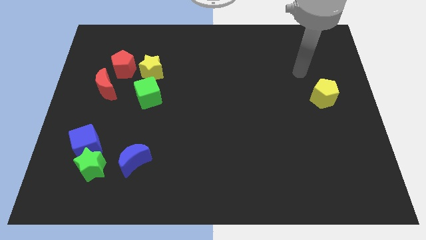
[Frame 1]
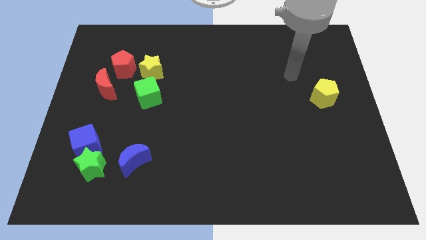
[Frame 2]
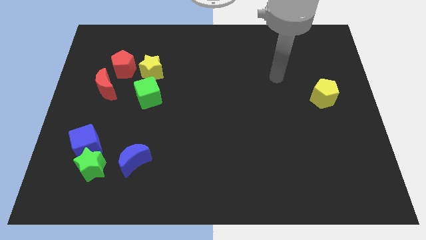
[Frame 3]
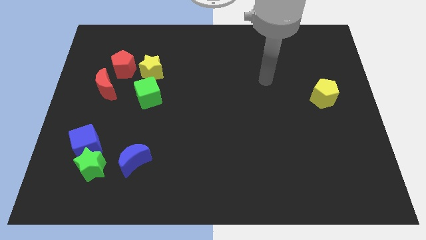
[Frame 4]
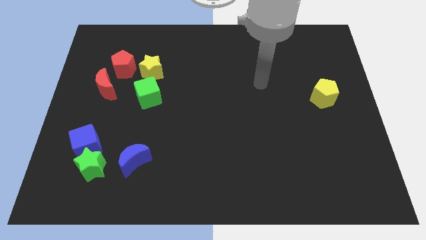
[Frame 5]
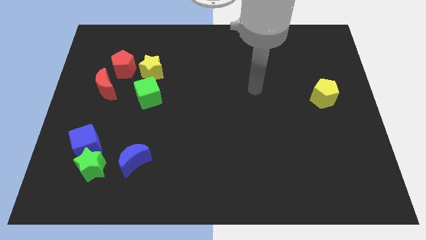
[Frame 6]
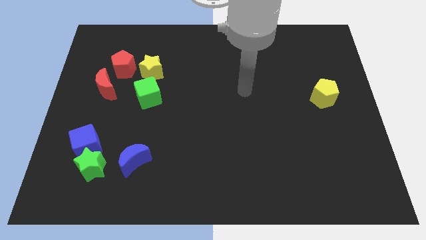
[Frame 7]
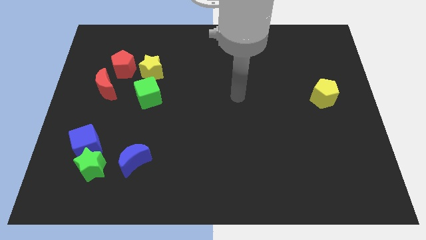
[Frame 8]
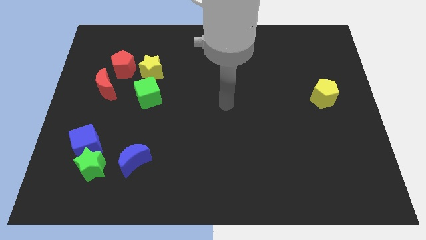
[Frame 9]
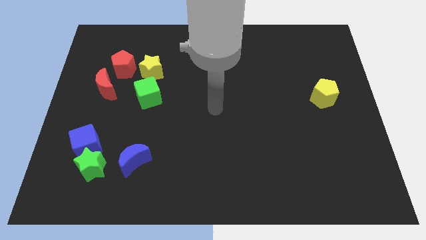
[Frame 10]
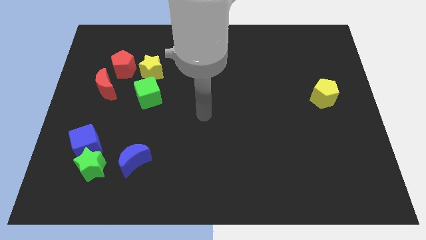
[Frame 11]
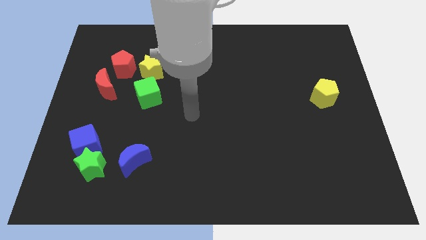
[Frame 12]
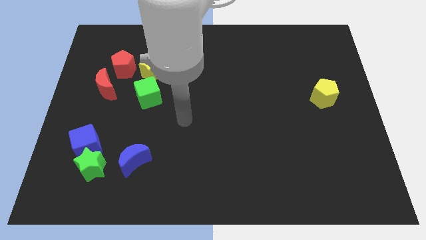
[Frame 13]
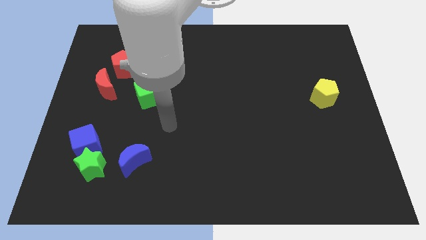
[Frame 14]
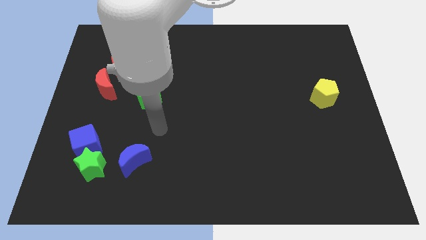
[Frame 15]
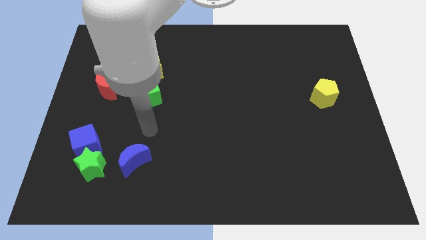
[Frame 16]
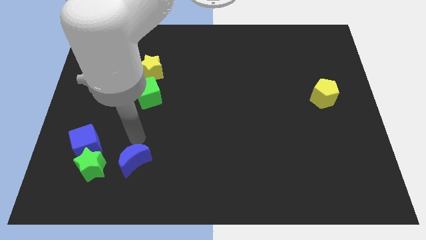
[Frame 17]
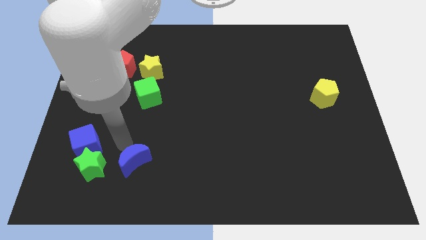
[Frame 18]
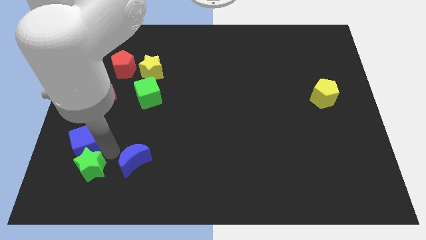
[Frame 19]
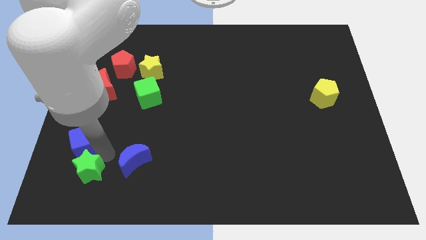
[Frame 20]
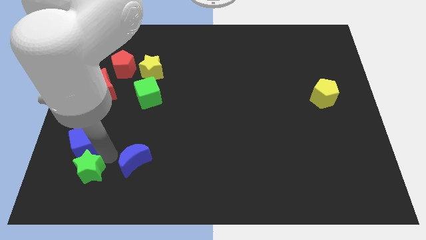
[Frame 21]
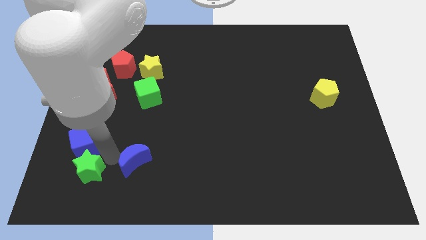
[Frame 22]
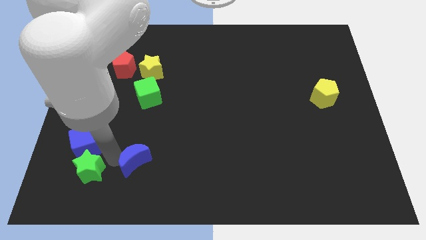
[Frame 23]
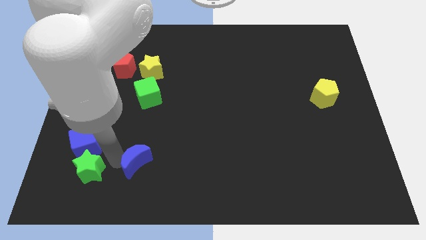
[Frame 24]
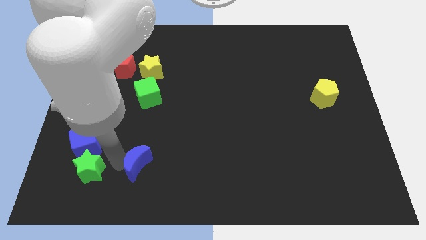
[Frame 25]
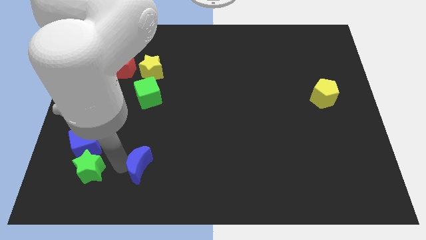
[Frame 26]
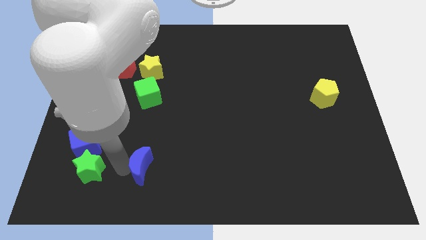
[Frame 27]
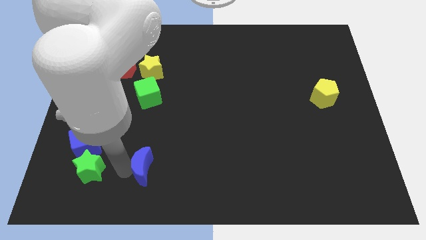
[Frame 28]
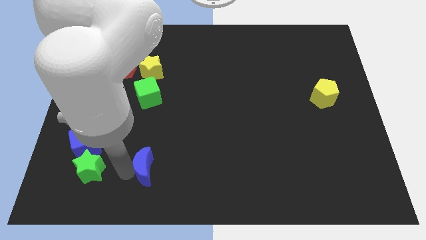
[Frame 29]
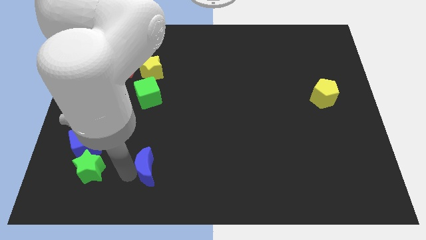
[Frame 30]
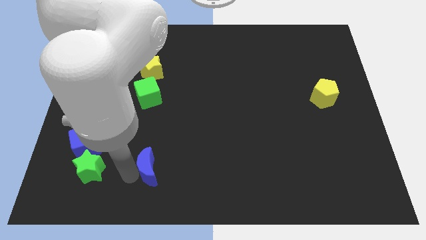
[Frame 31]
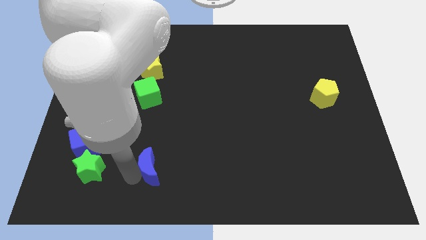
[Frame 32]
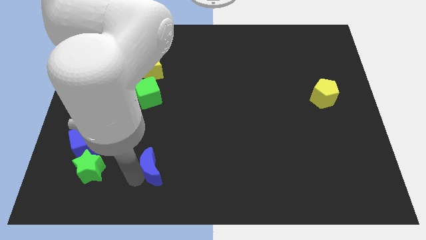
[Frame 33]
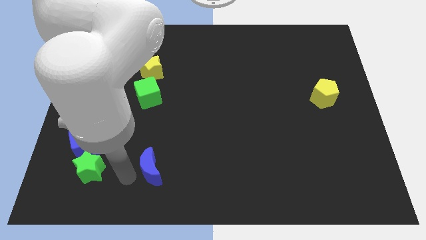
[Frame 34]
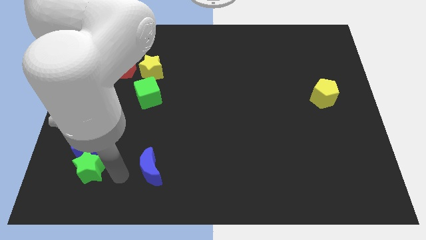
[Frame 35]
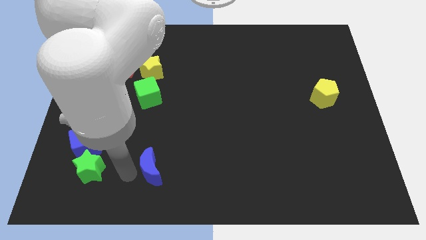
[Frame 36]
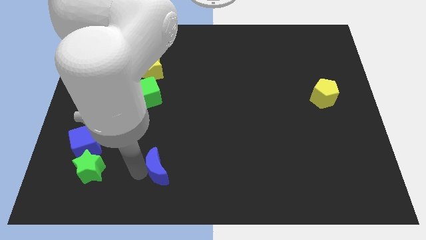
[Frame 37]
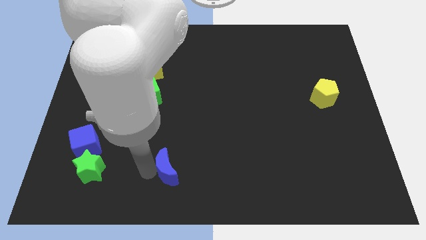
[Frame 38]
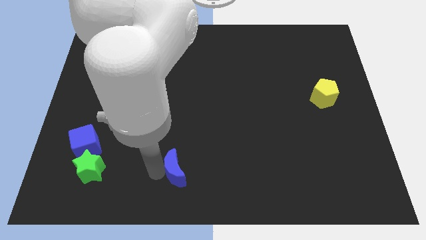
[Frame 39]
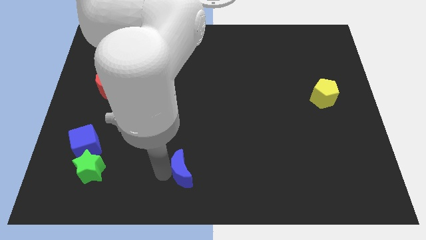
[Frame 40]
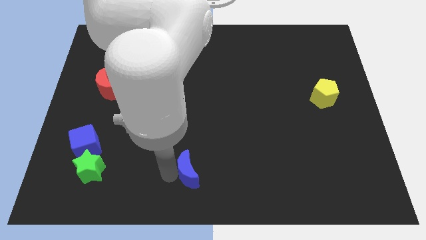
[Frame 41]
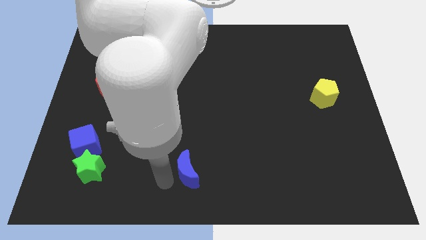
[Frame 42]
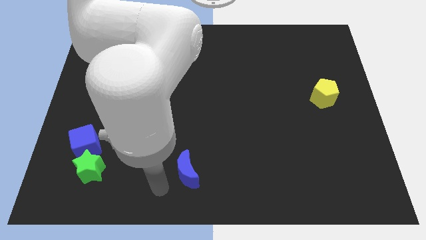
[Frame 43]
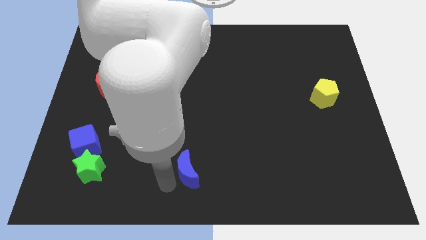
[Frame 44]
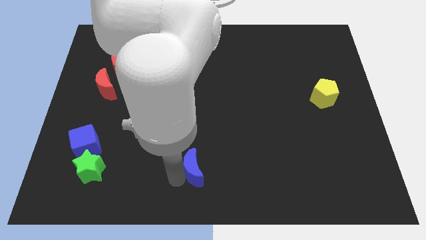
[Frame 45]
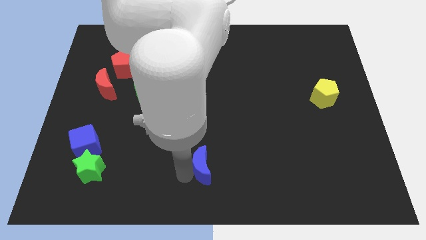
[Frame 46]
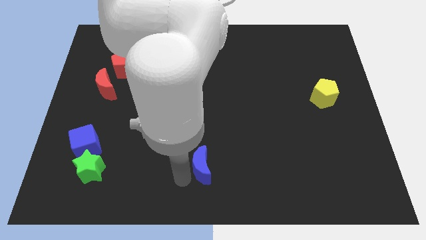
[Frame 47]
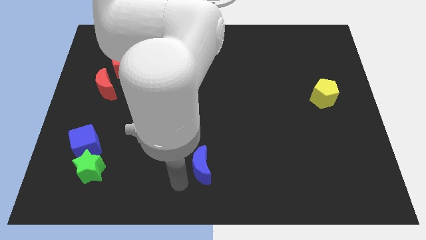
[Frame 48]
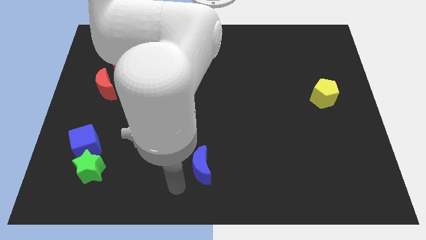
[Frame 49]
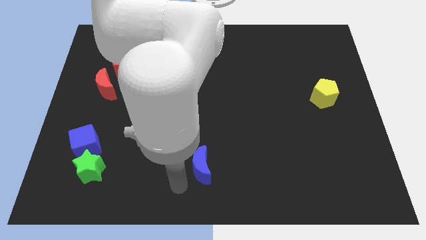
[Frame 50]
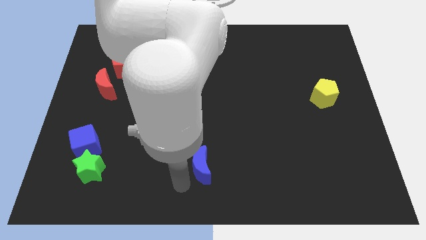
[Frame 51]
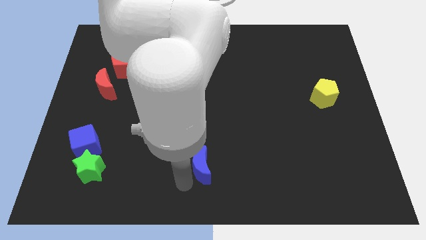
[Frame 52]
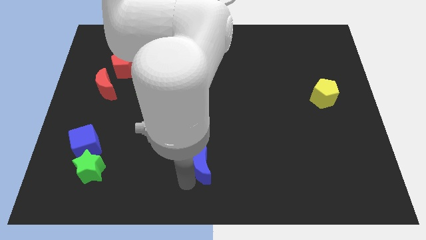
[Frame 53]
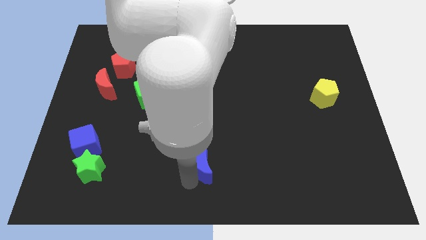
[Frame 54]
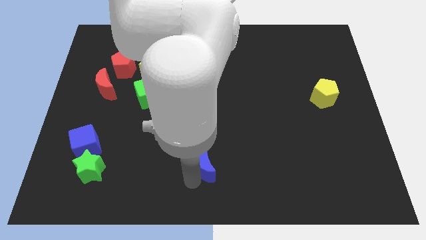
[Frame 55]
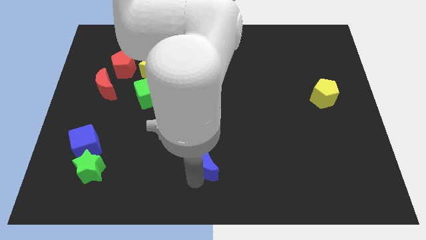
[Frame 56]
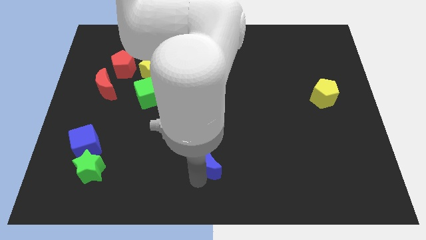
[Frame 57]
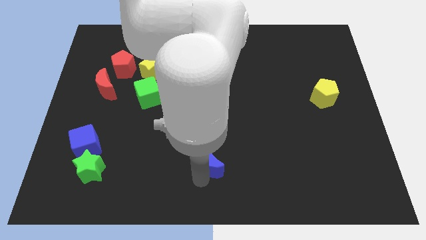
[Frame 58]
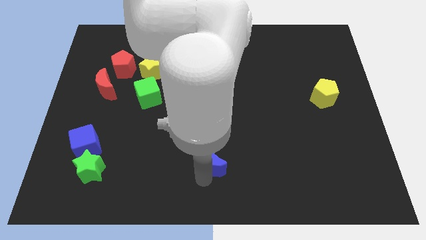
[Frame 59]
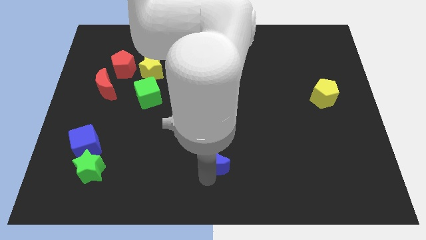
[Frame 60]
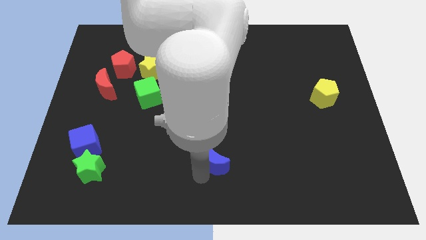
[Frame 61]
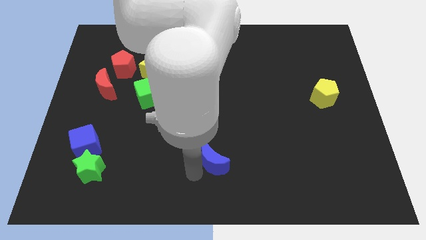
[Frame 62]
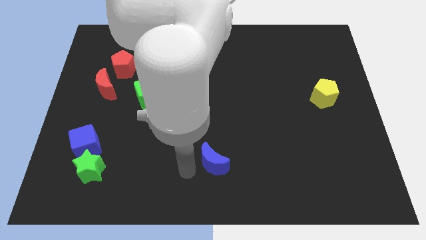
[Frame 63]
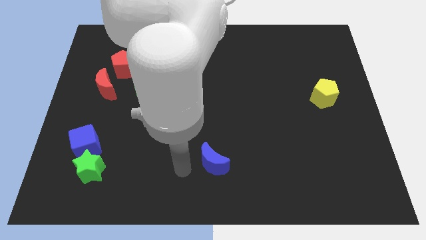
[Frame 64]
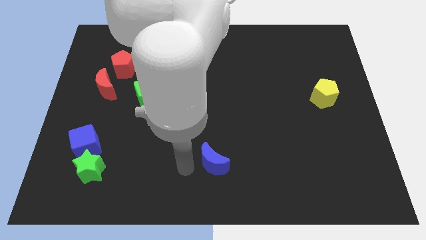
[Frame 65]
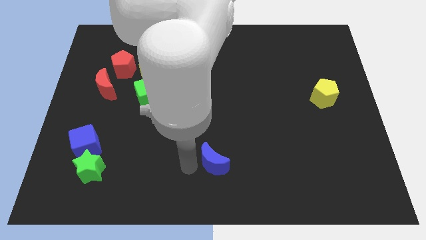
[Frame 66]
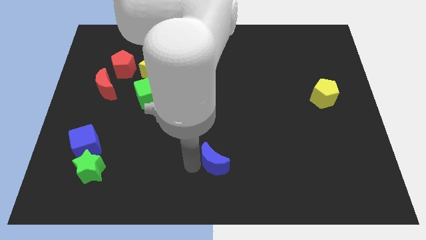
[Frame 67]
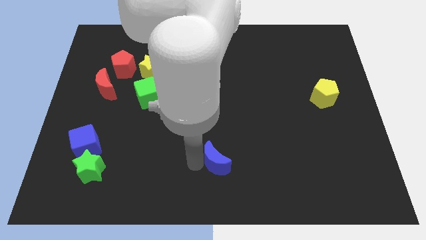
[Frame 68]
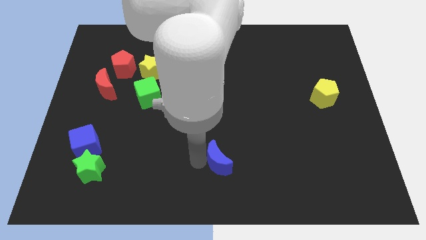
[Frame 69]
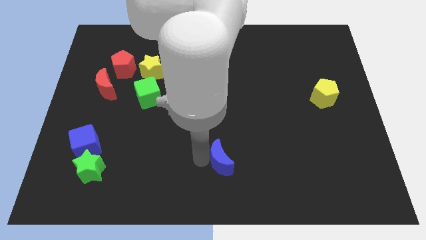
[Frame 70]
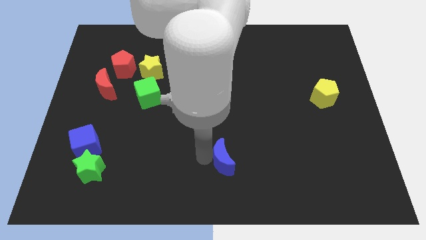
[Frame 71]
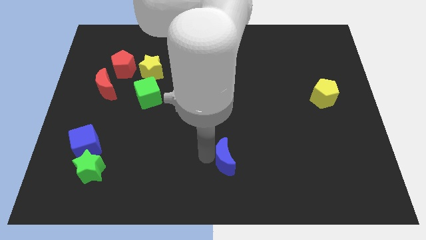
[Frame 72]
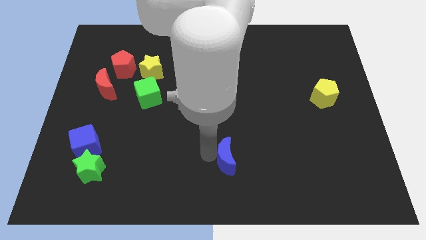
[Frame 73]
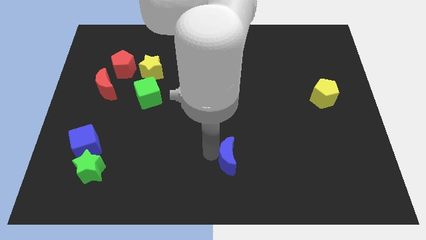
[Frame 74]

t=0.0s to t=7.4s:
push the blue moon right
